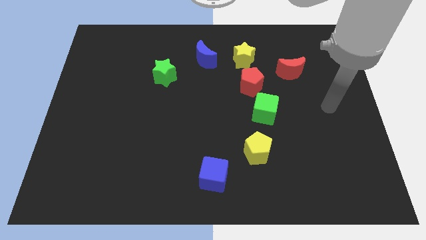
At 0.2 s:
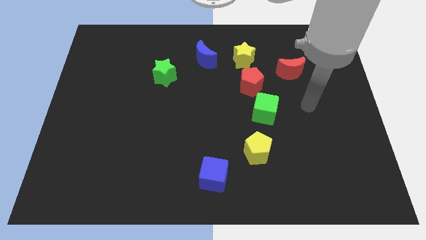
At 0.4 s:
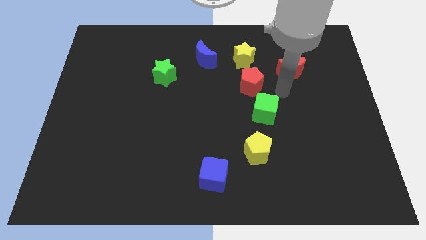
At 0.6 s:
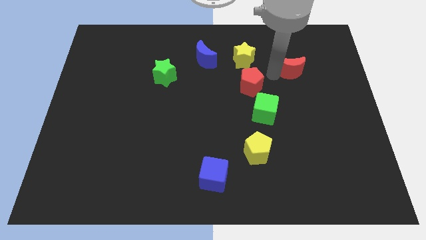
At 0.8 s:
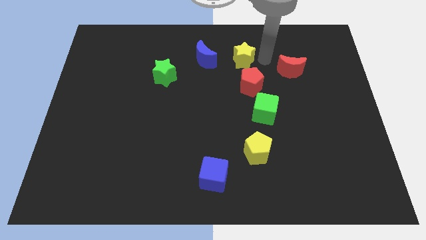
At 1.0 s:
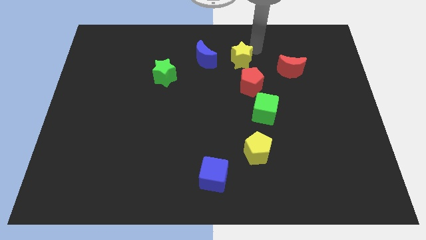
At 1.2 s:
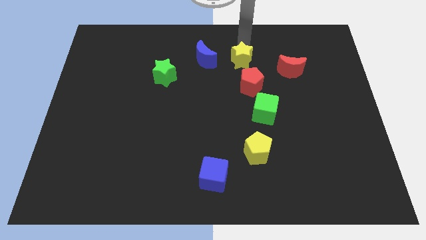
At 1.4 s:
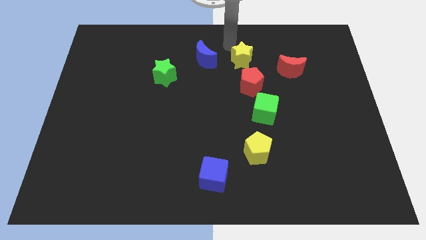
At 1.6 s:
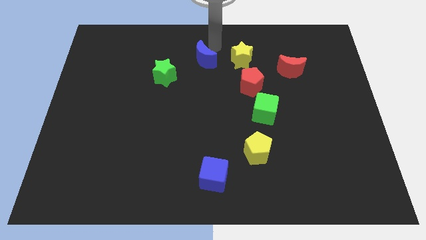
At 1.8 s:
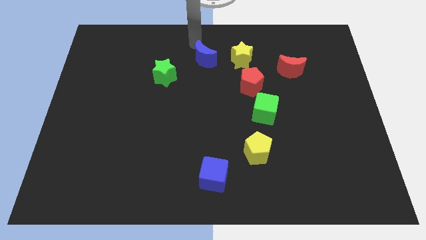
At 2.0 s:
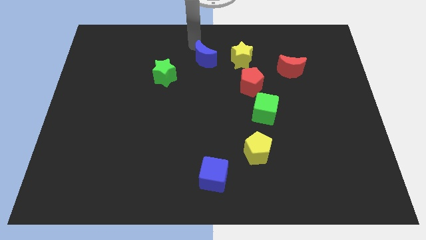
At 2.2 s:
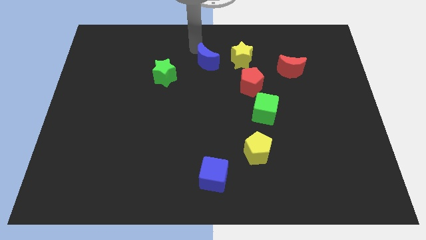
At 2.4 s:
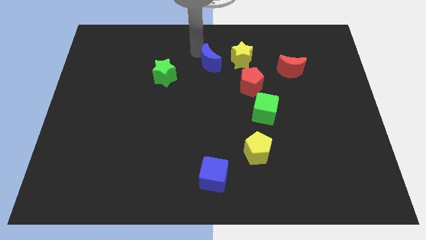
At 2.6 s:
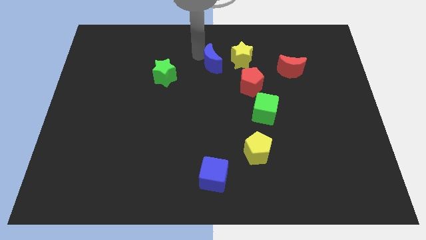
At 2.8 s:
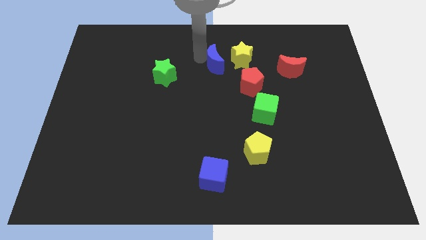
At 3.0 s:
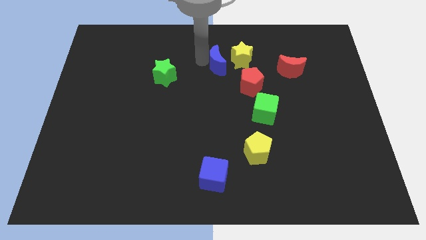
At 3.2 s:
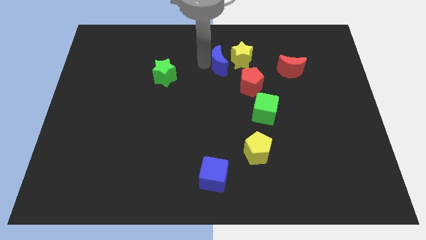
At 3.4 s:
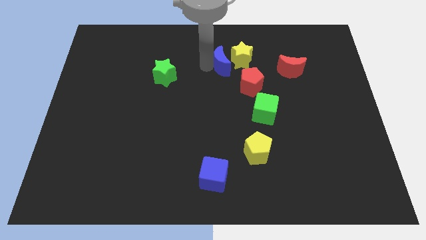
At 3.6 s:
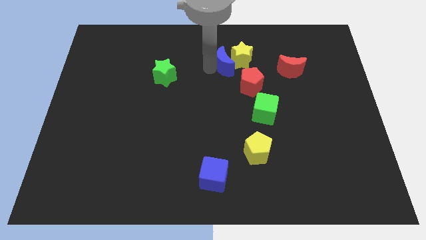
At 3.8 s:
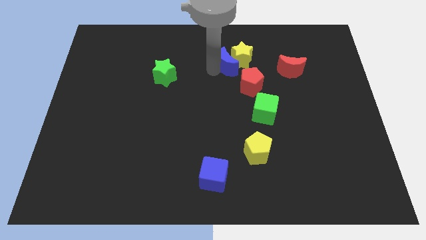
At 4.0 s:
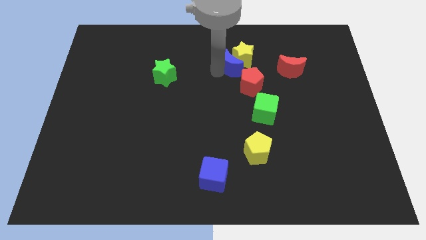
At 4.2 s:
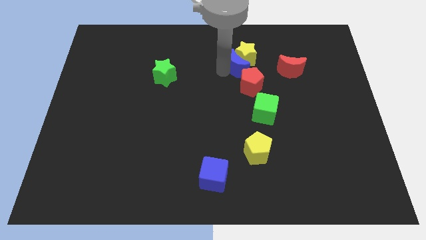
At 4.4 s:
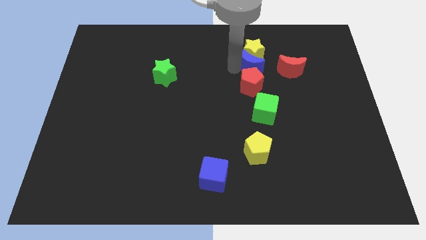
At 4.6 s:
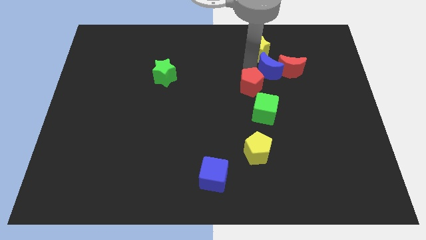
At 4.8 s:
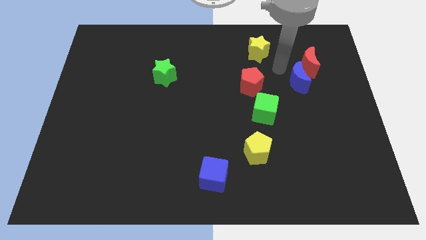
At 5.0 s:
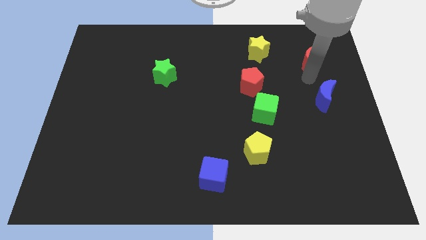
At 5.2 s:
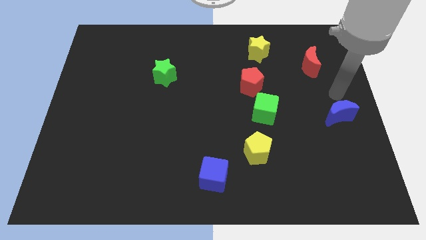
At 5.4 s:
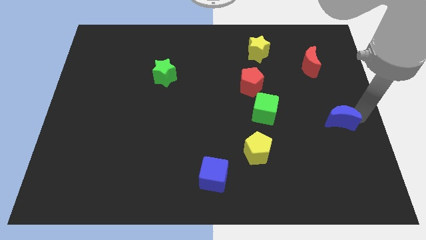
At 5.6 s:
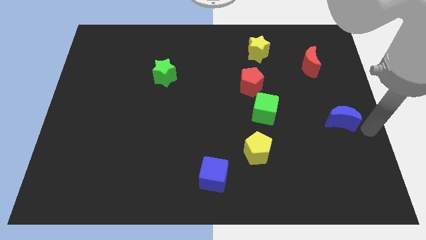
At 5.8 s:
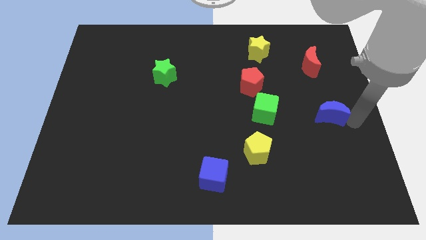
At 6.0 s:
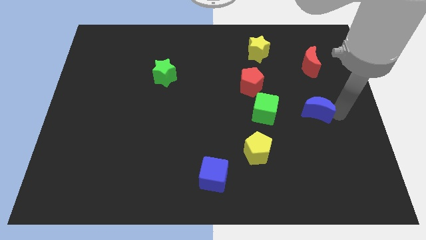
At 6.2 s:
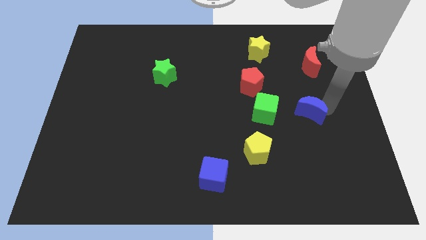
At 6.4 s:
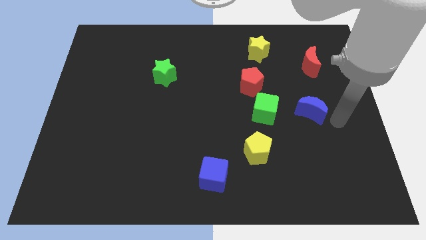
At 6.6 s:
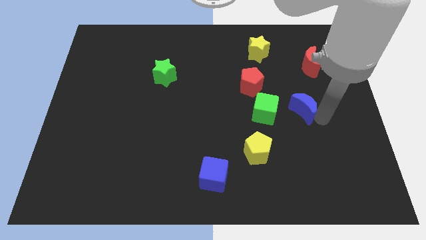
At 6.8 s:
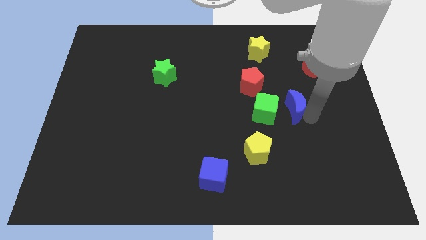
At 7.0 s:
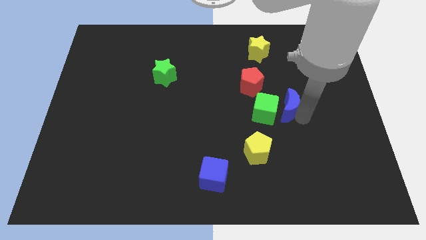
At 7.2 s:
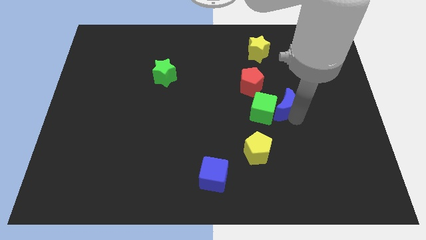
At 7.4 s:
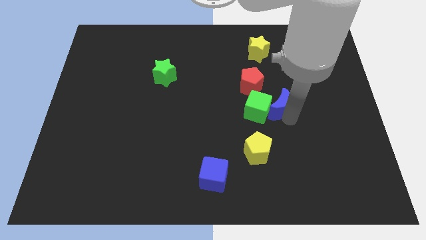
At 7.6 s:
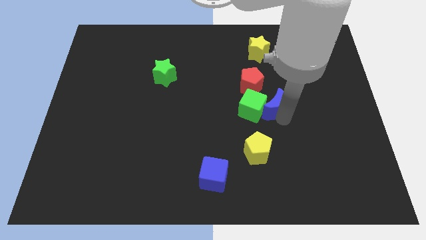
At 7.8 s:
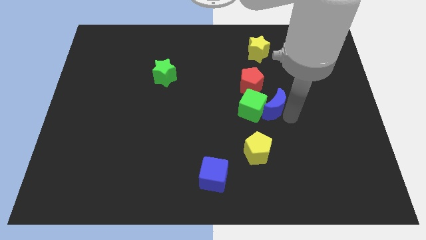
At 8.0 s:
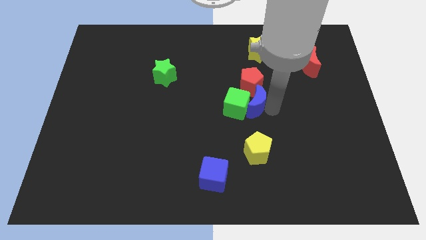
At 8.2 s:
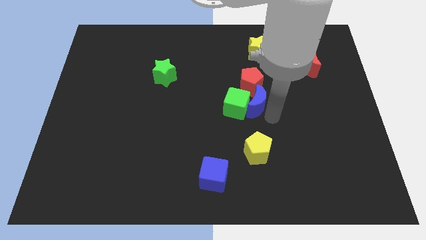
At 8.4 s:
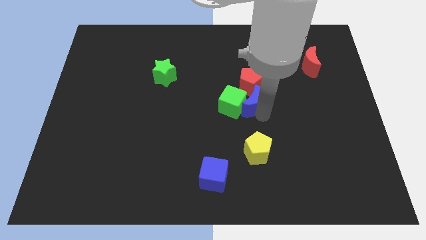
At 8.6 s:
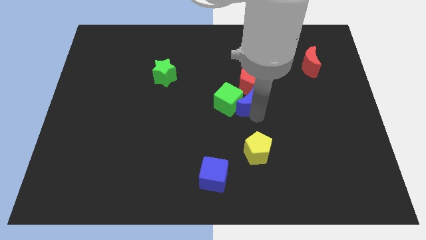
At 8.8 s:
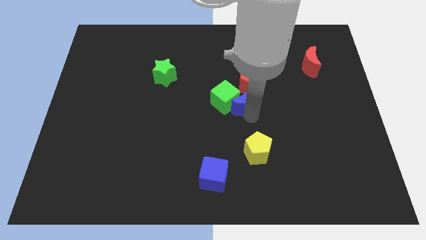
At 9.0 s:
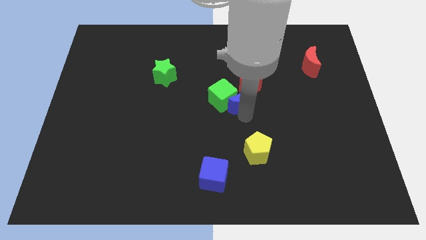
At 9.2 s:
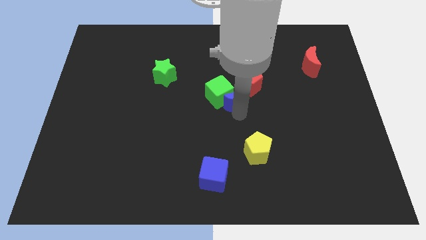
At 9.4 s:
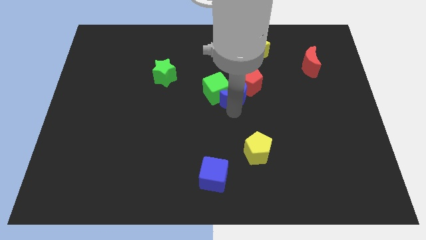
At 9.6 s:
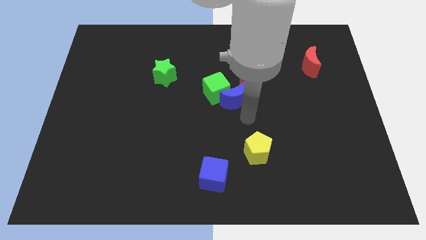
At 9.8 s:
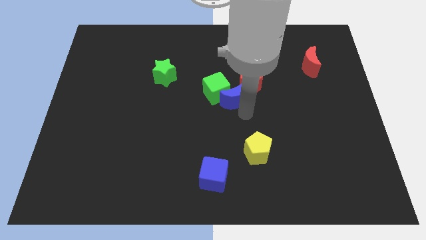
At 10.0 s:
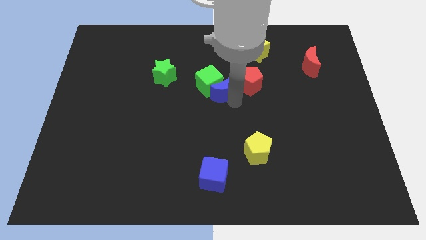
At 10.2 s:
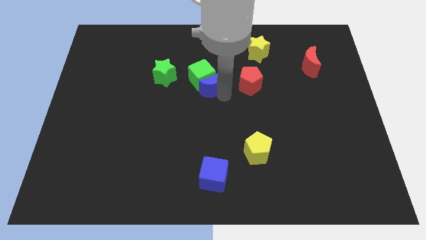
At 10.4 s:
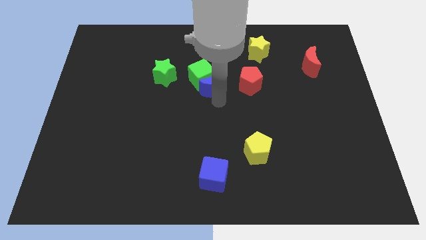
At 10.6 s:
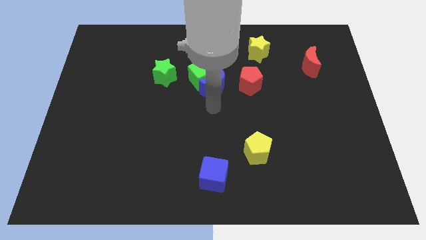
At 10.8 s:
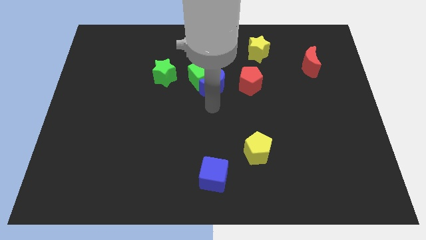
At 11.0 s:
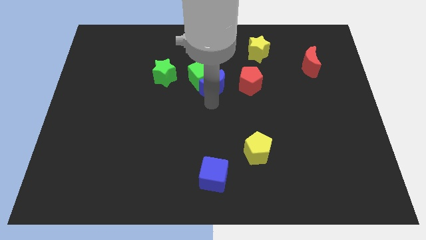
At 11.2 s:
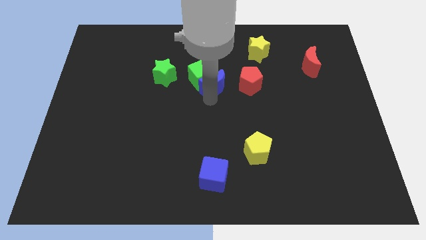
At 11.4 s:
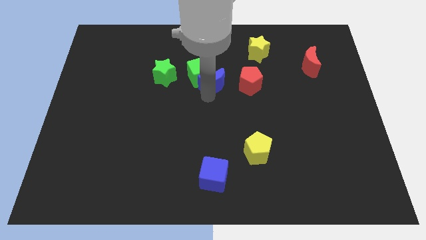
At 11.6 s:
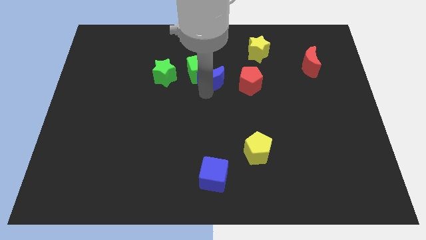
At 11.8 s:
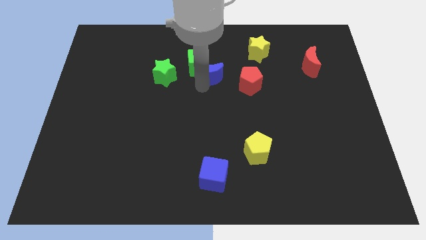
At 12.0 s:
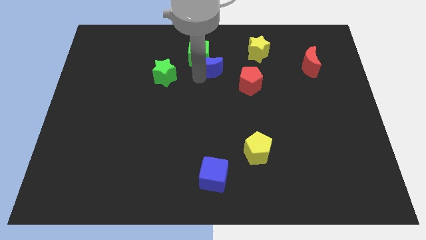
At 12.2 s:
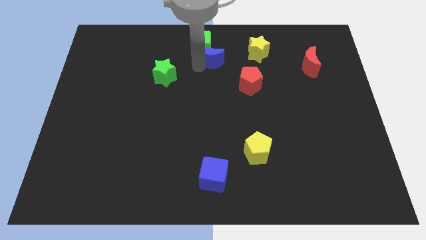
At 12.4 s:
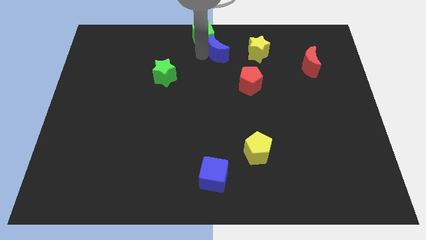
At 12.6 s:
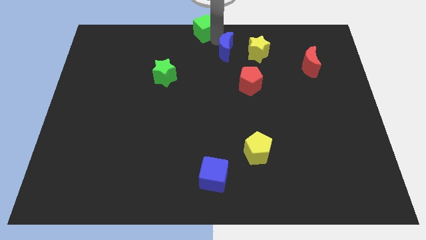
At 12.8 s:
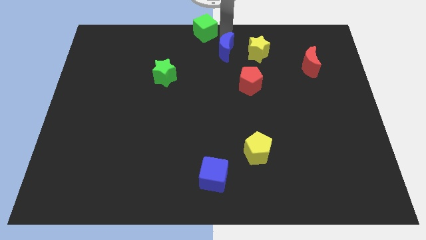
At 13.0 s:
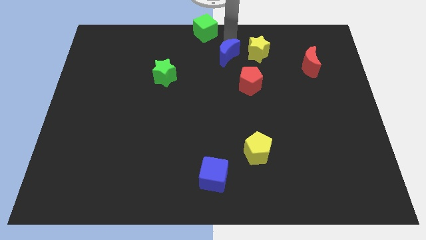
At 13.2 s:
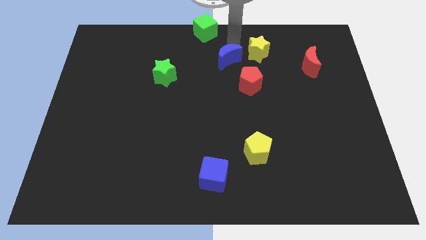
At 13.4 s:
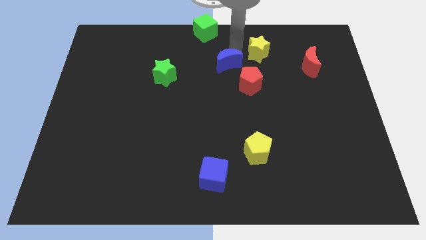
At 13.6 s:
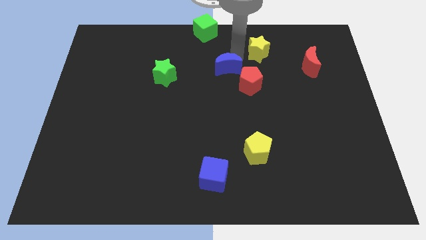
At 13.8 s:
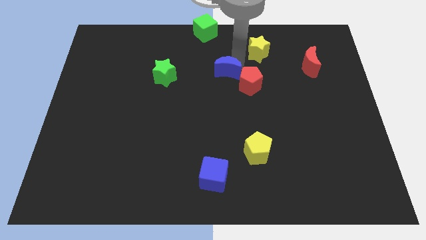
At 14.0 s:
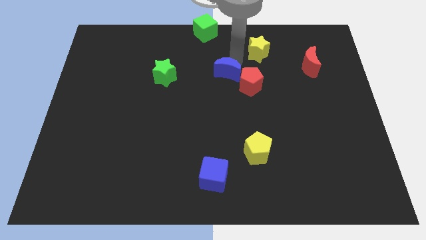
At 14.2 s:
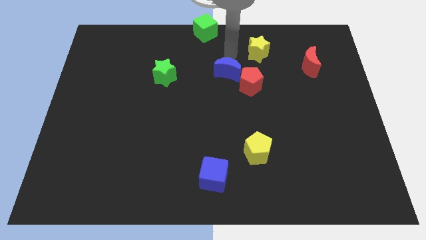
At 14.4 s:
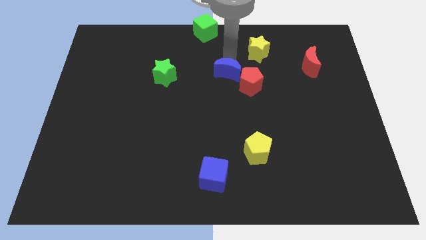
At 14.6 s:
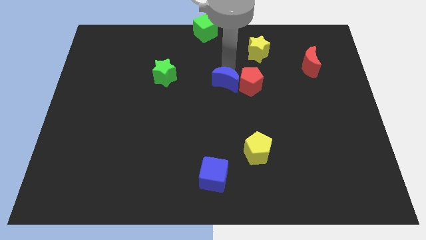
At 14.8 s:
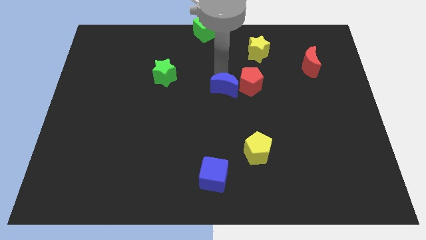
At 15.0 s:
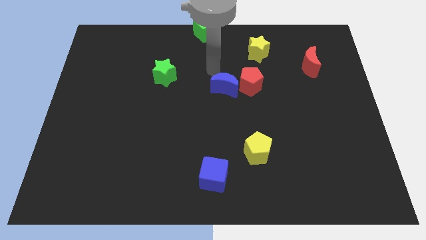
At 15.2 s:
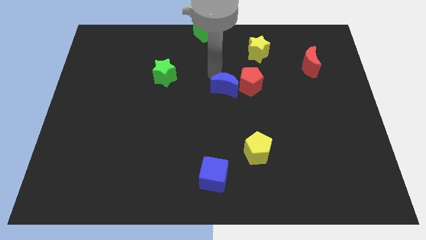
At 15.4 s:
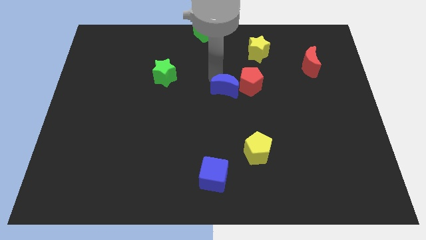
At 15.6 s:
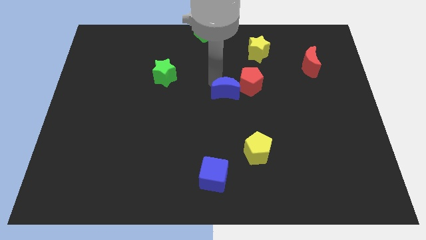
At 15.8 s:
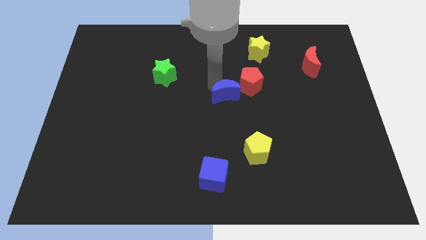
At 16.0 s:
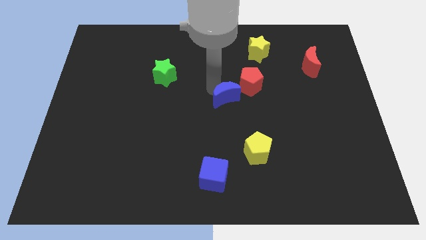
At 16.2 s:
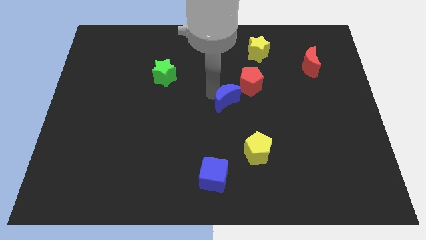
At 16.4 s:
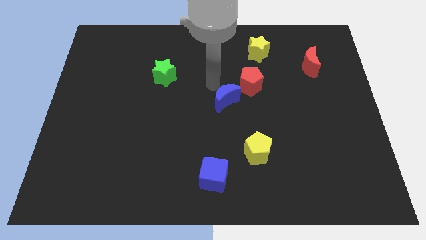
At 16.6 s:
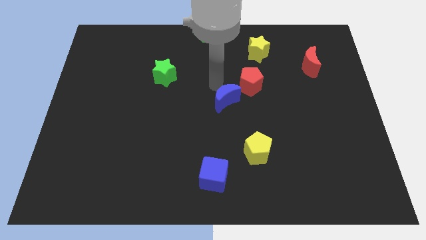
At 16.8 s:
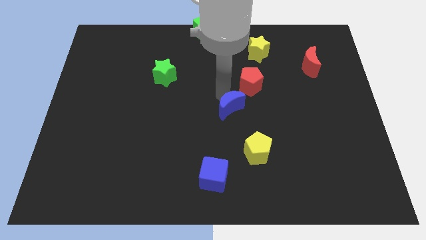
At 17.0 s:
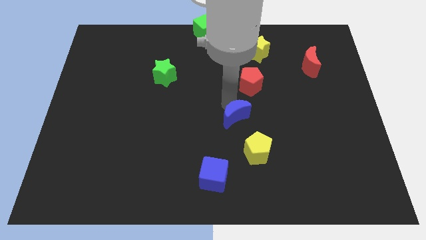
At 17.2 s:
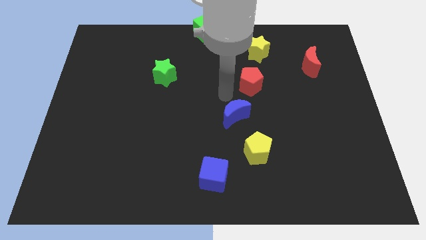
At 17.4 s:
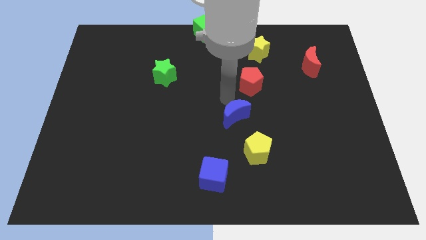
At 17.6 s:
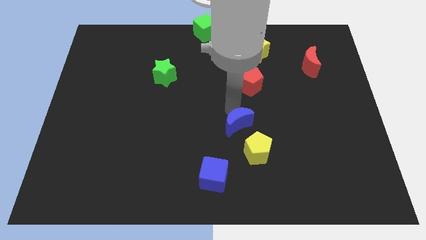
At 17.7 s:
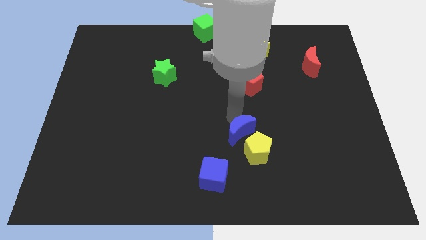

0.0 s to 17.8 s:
put the blue moon towards the yellow pentagon
